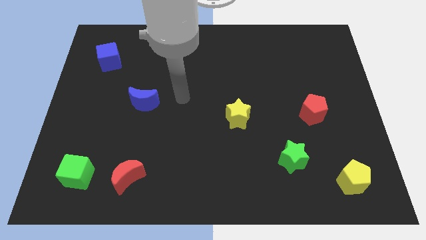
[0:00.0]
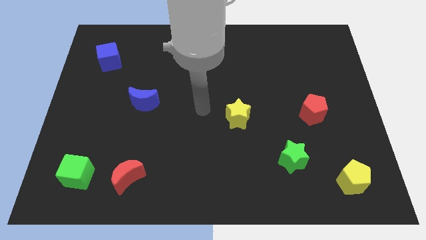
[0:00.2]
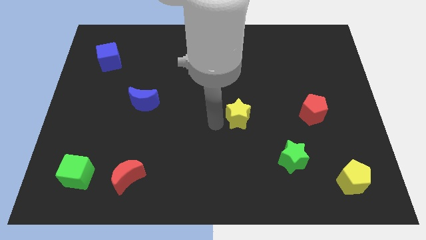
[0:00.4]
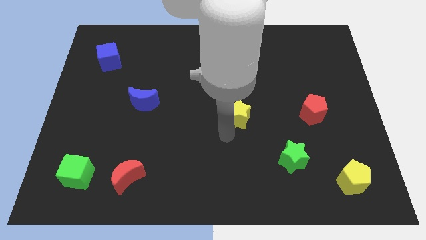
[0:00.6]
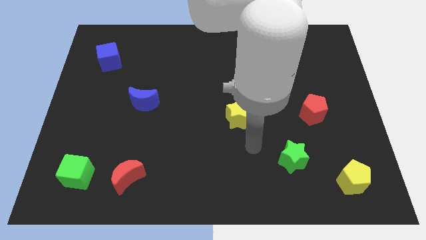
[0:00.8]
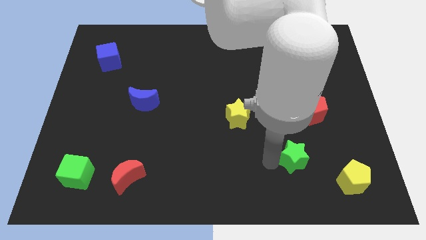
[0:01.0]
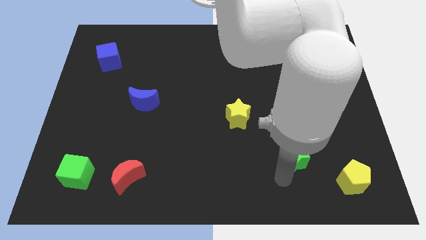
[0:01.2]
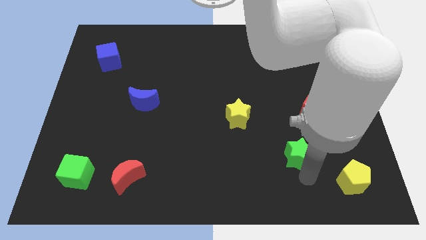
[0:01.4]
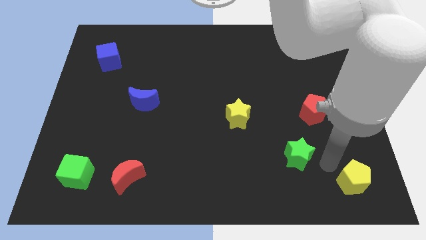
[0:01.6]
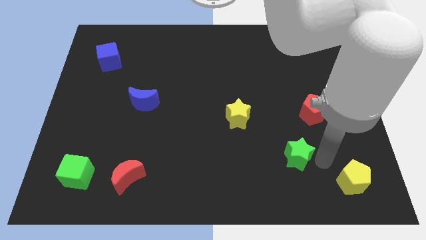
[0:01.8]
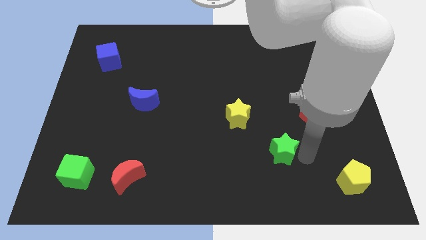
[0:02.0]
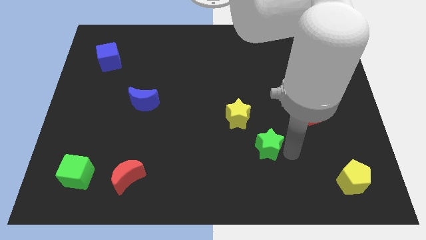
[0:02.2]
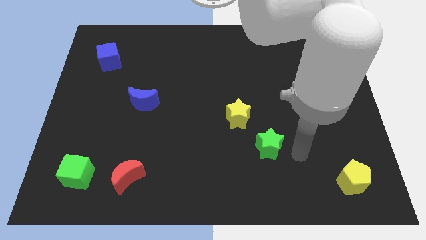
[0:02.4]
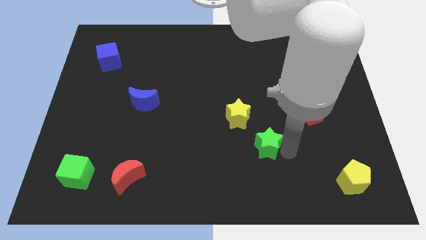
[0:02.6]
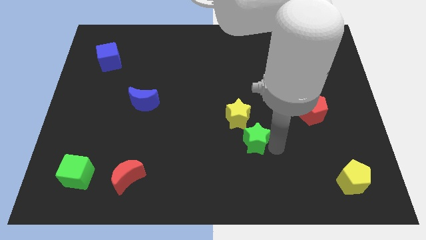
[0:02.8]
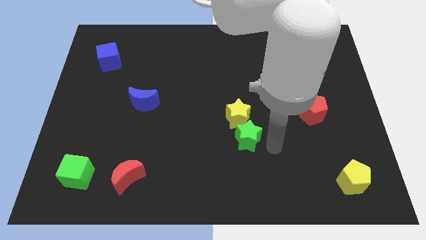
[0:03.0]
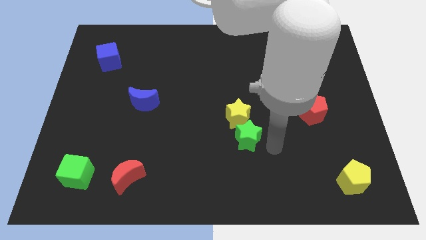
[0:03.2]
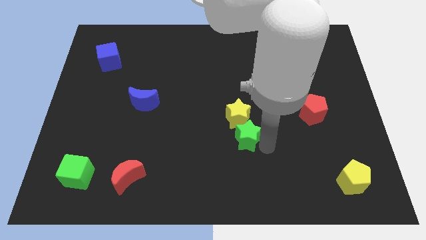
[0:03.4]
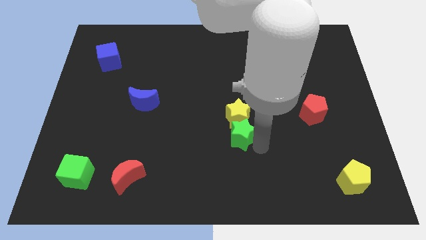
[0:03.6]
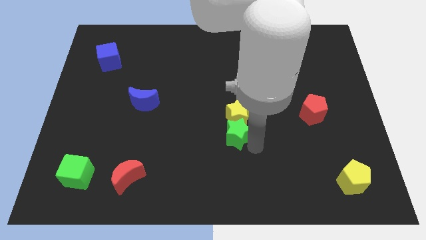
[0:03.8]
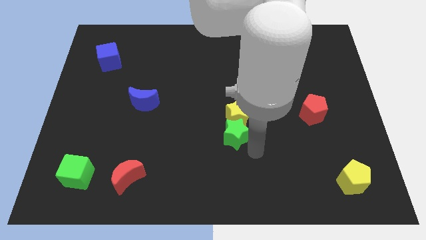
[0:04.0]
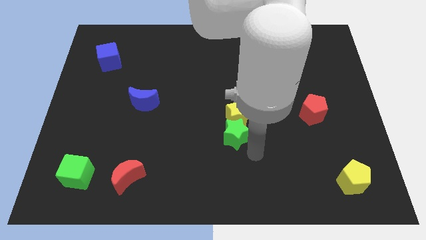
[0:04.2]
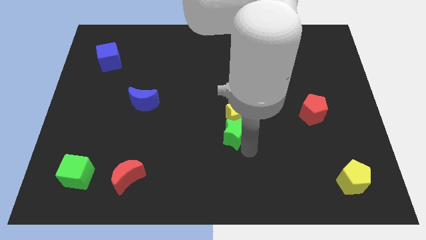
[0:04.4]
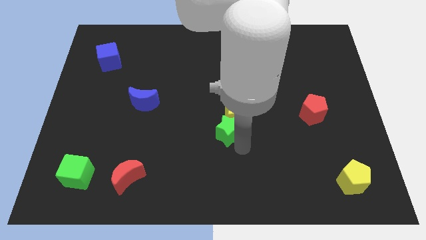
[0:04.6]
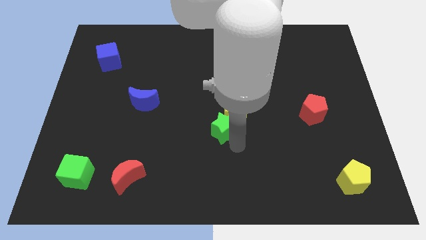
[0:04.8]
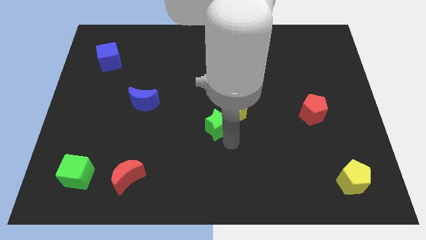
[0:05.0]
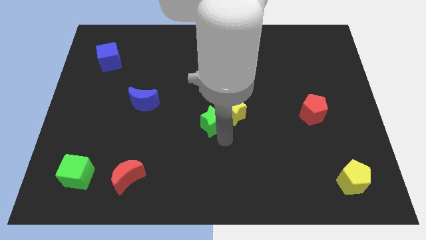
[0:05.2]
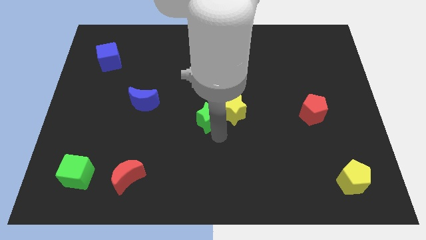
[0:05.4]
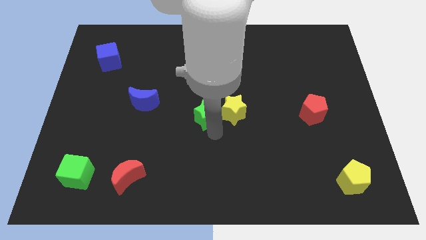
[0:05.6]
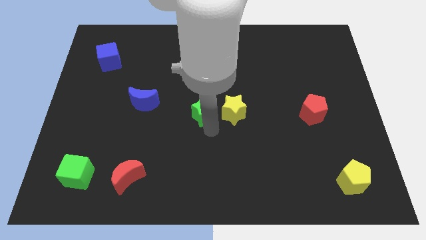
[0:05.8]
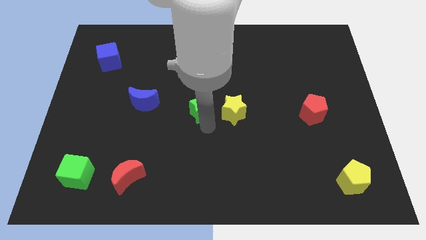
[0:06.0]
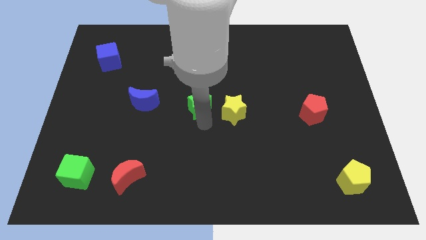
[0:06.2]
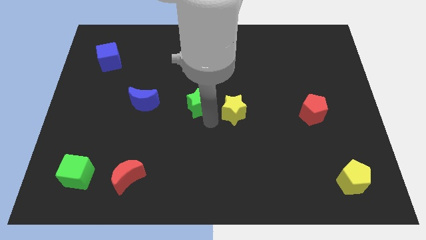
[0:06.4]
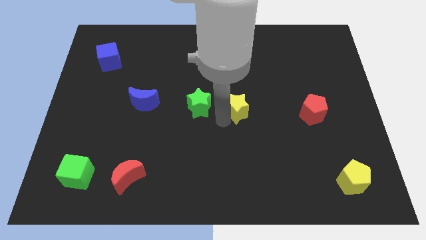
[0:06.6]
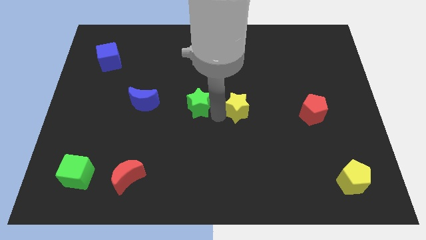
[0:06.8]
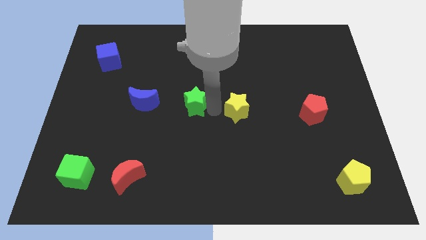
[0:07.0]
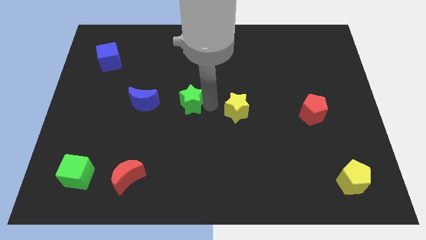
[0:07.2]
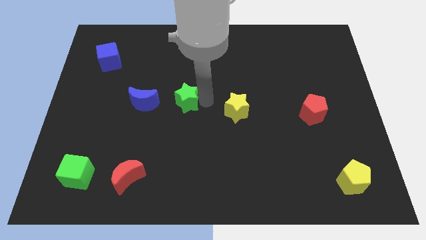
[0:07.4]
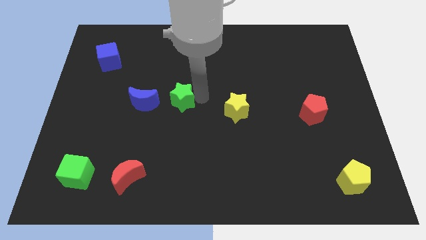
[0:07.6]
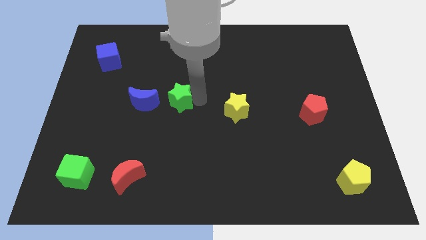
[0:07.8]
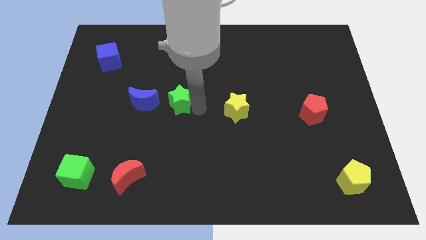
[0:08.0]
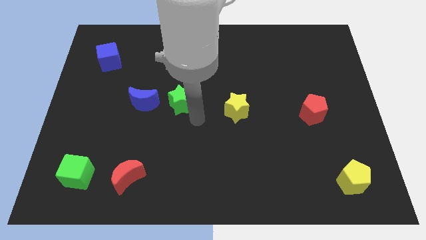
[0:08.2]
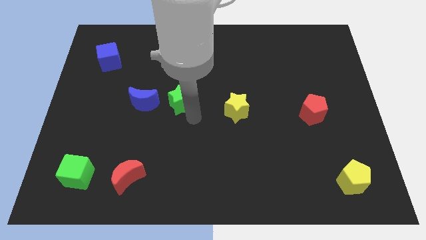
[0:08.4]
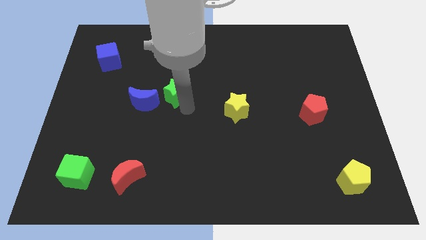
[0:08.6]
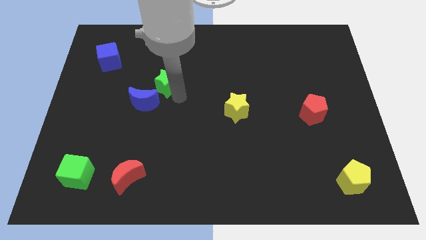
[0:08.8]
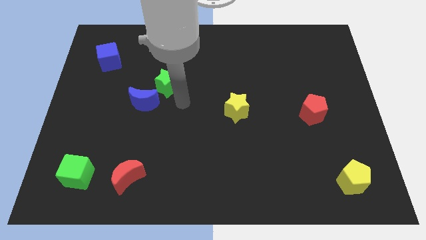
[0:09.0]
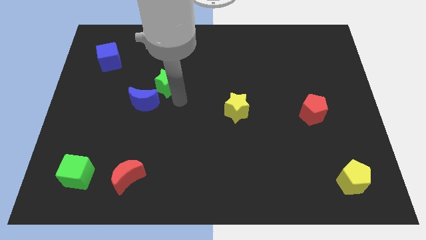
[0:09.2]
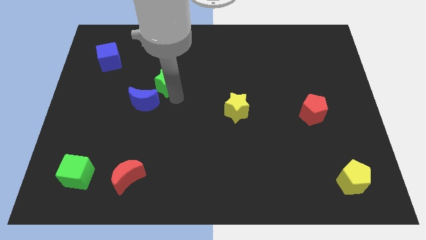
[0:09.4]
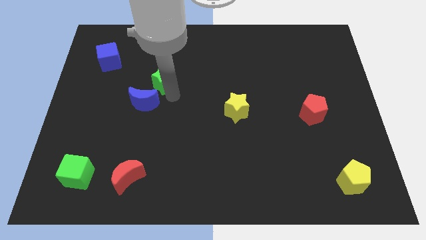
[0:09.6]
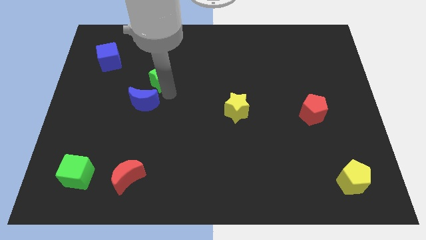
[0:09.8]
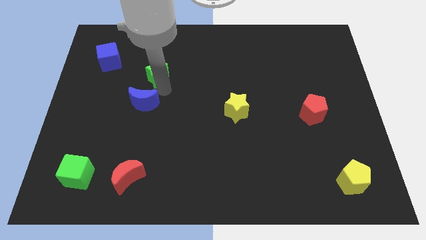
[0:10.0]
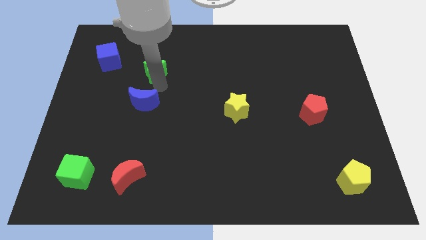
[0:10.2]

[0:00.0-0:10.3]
push the green star just right of the blue cube

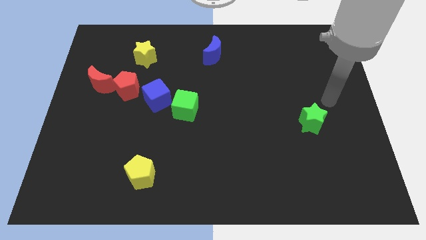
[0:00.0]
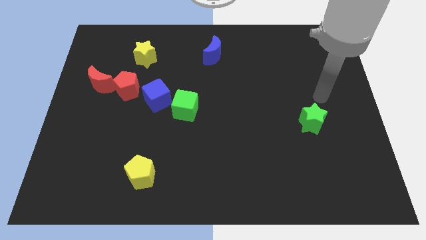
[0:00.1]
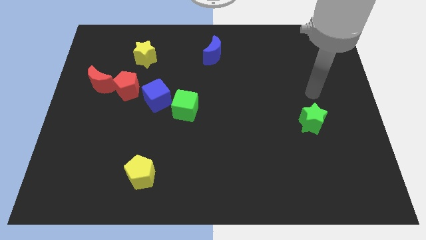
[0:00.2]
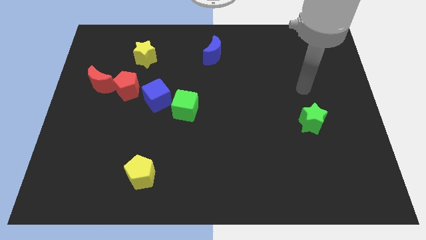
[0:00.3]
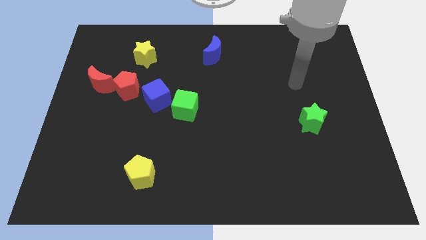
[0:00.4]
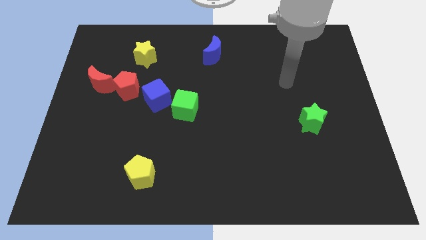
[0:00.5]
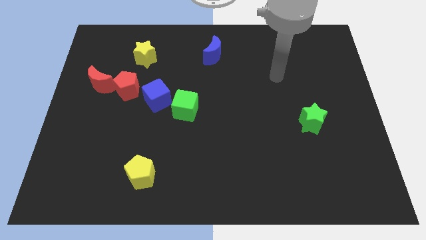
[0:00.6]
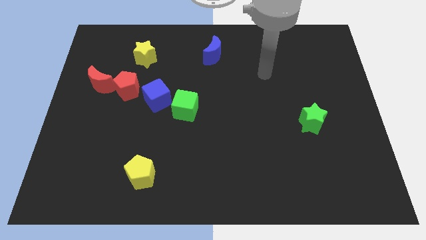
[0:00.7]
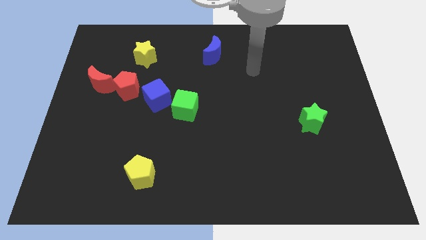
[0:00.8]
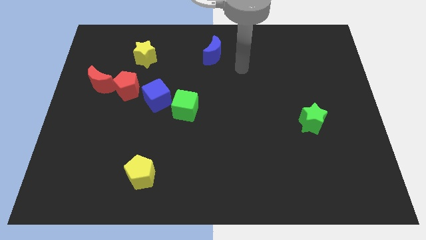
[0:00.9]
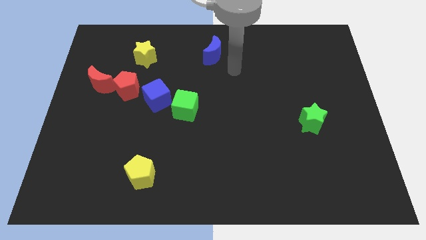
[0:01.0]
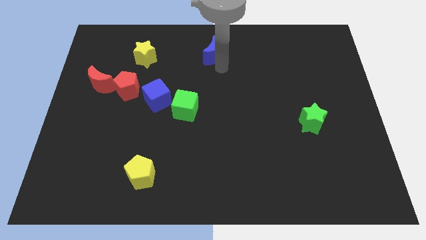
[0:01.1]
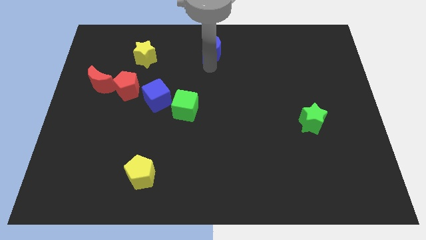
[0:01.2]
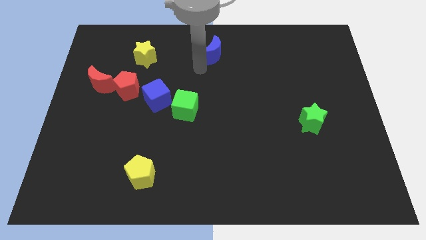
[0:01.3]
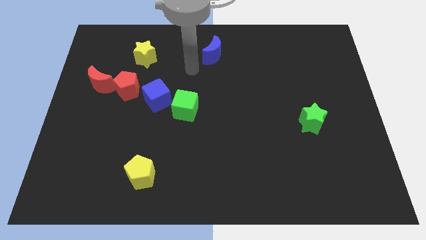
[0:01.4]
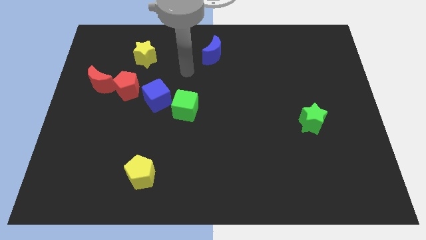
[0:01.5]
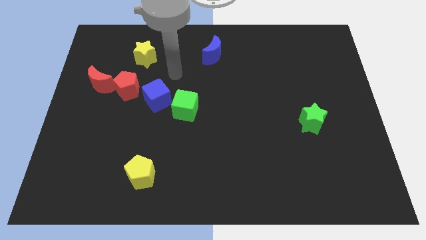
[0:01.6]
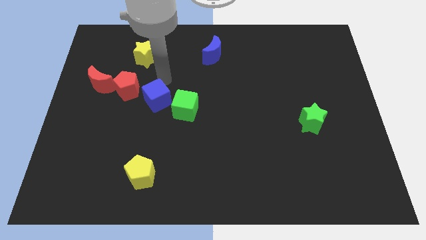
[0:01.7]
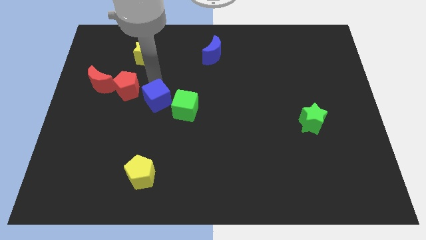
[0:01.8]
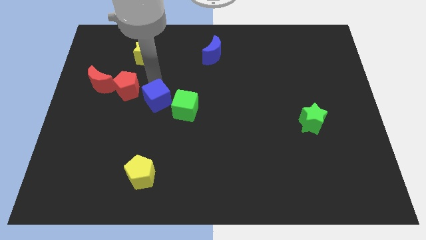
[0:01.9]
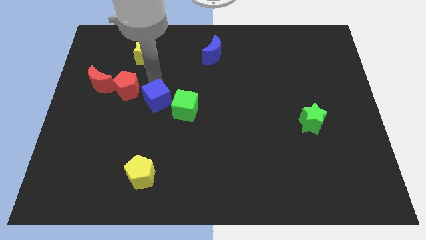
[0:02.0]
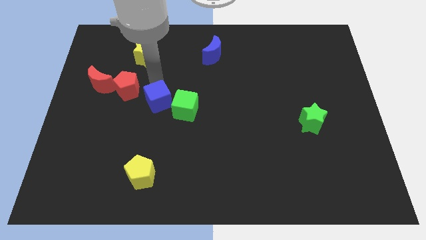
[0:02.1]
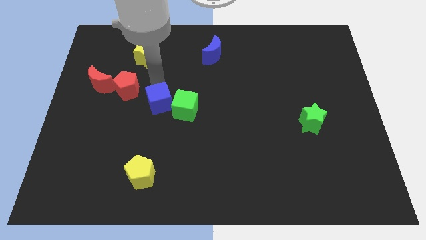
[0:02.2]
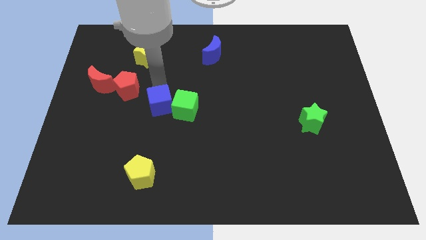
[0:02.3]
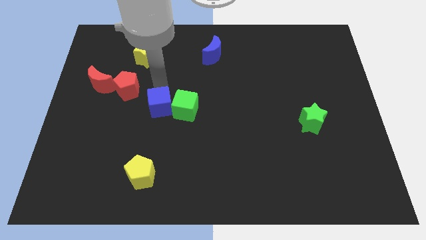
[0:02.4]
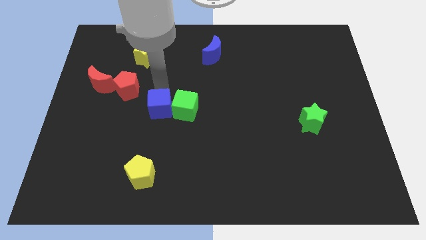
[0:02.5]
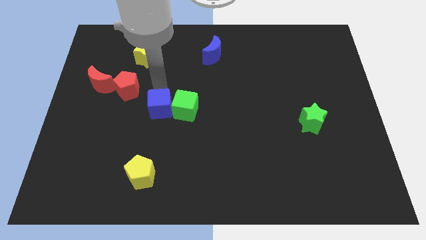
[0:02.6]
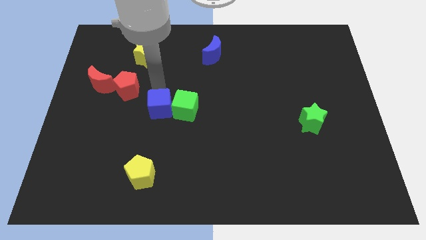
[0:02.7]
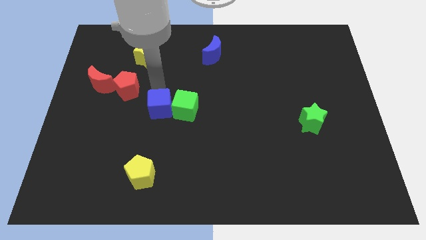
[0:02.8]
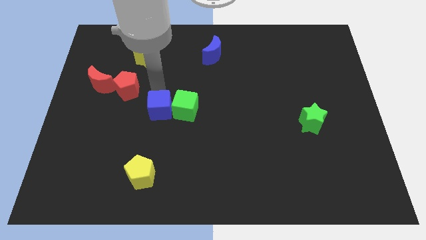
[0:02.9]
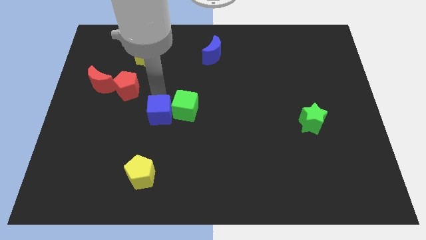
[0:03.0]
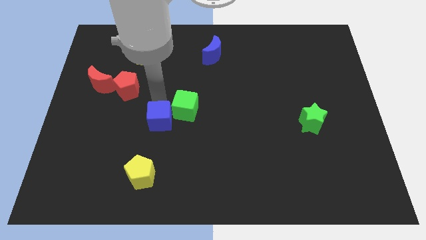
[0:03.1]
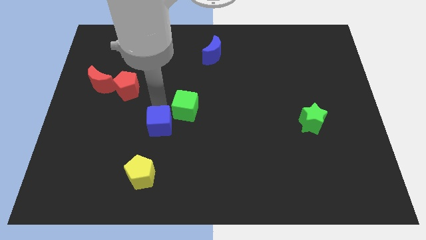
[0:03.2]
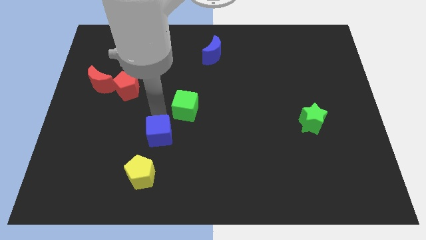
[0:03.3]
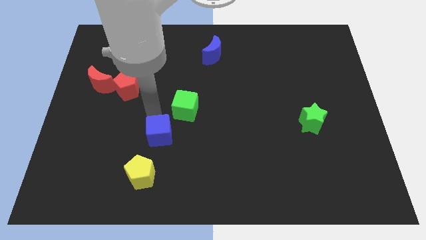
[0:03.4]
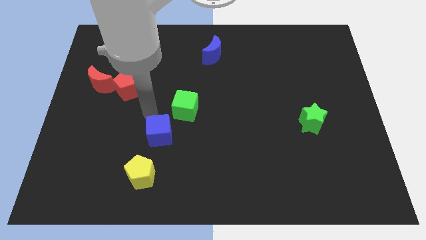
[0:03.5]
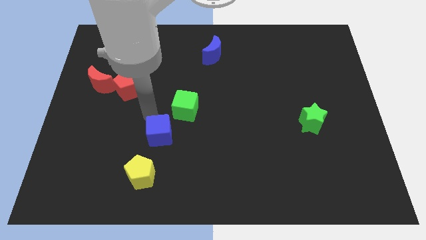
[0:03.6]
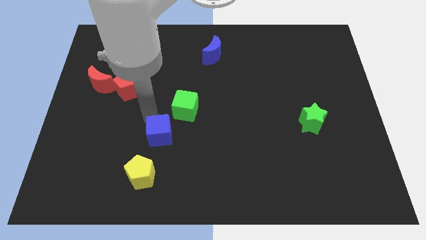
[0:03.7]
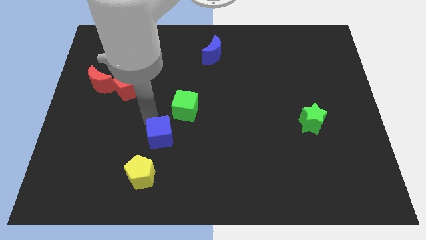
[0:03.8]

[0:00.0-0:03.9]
move the blue cube diagonally up and to the right of the yellow pentagon
